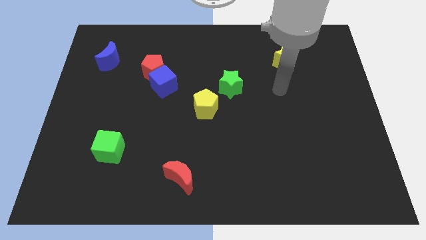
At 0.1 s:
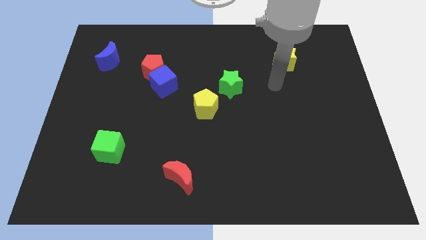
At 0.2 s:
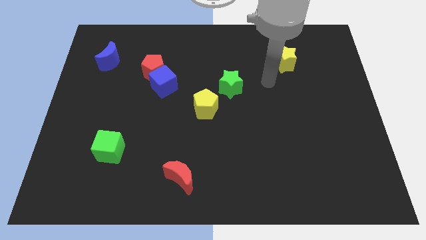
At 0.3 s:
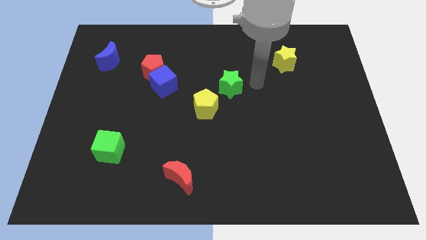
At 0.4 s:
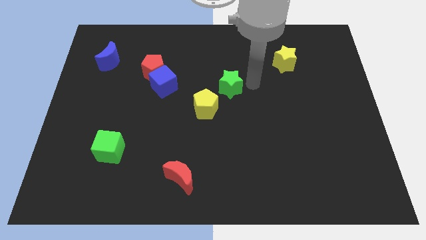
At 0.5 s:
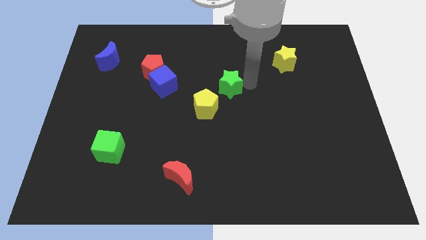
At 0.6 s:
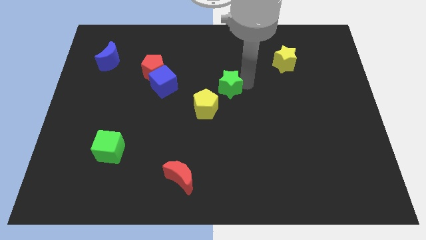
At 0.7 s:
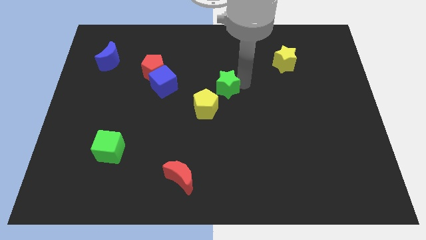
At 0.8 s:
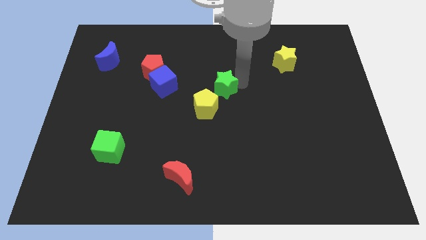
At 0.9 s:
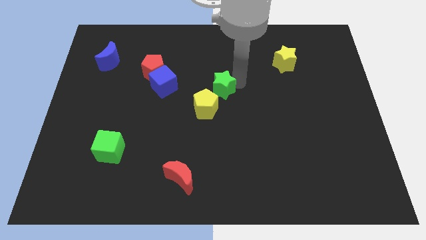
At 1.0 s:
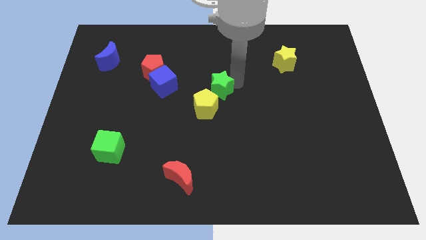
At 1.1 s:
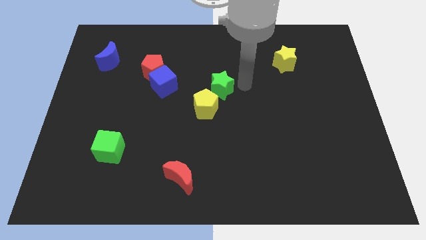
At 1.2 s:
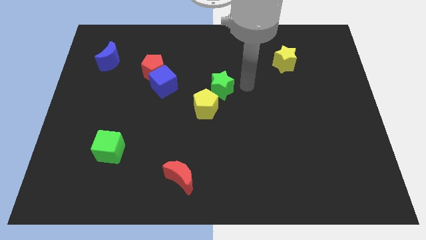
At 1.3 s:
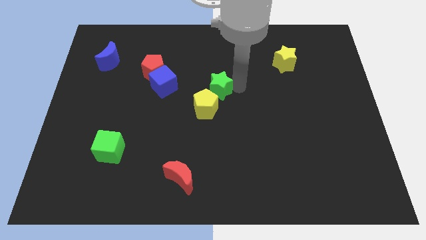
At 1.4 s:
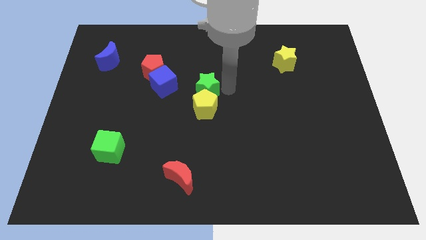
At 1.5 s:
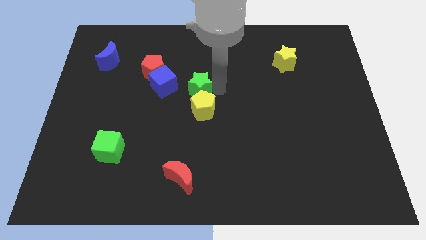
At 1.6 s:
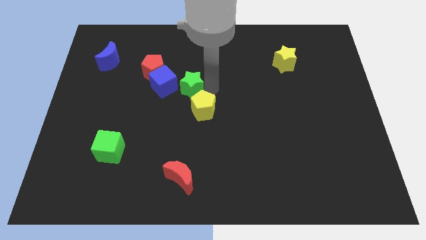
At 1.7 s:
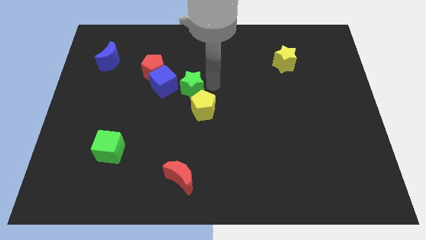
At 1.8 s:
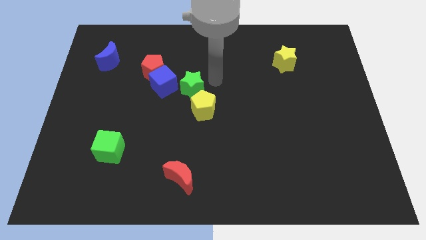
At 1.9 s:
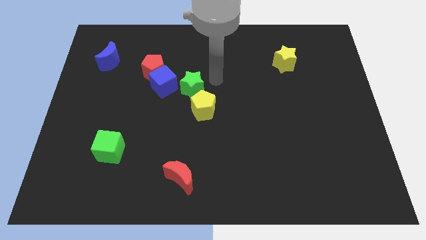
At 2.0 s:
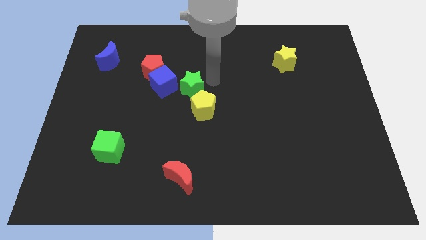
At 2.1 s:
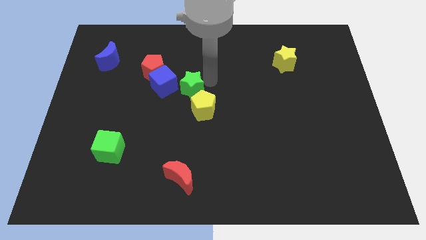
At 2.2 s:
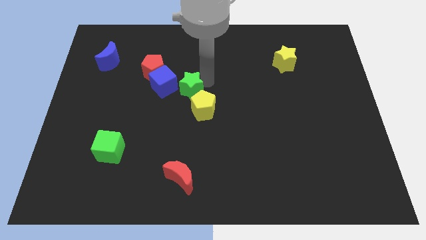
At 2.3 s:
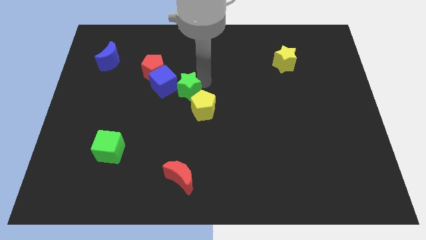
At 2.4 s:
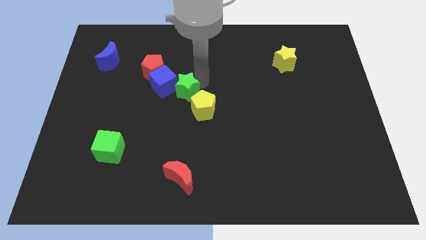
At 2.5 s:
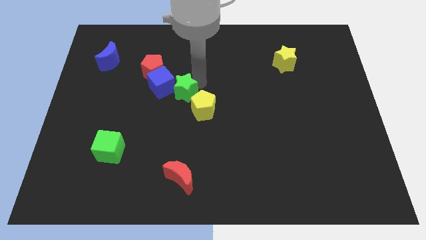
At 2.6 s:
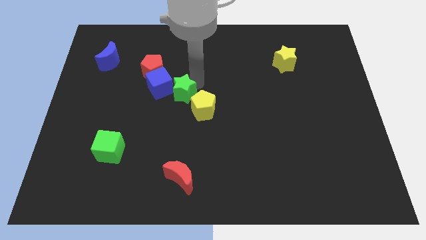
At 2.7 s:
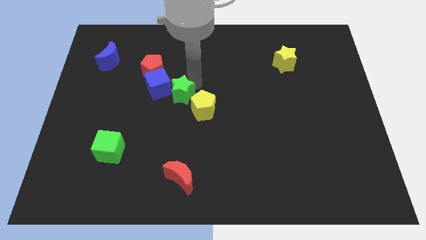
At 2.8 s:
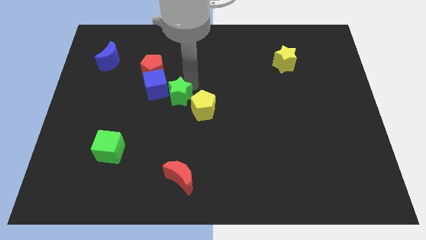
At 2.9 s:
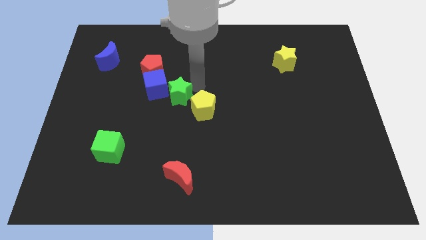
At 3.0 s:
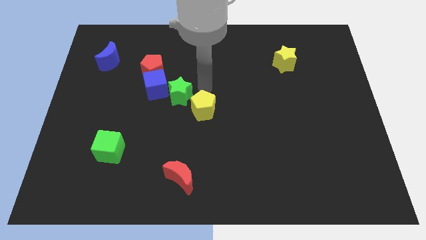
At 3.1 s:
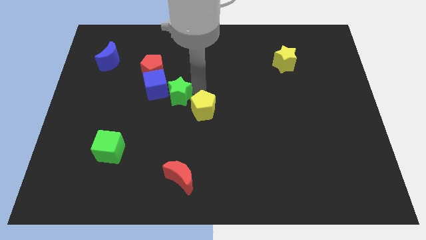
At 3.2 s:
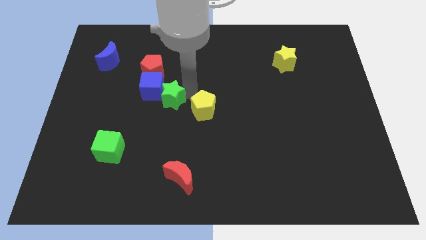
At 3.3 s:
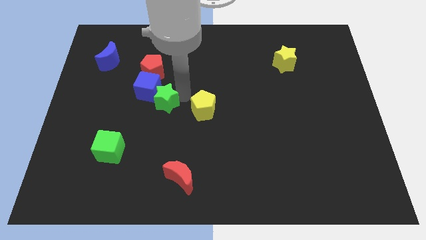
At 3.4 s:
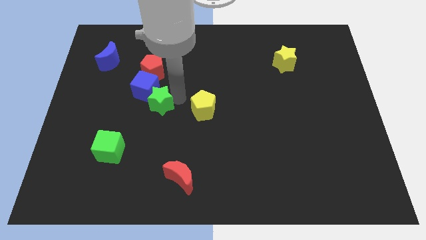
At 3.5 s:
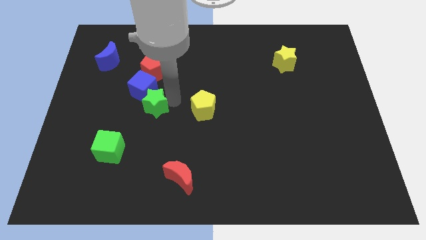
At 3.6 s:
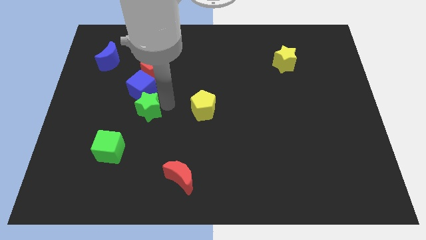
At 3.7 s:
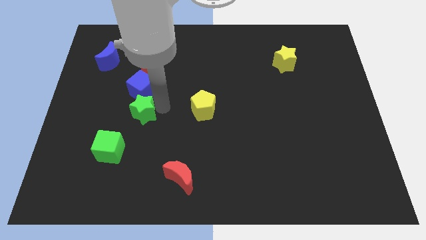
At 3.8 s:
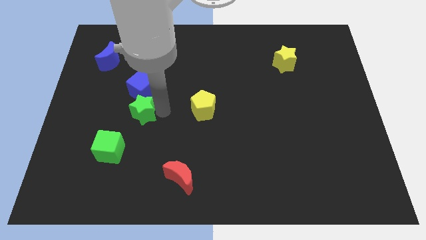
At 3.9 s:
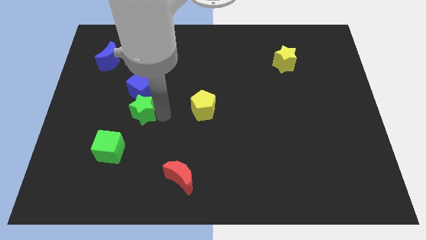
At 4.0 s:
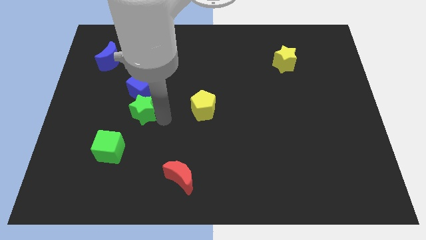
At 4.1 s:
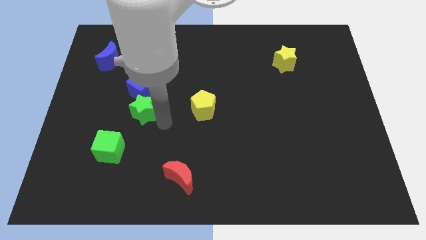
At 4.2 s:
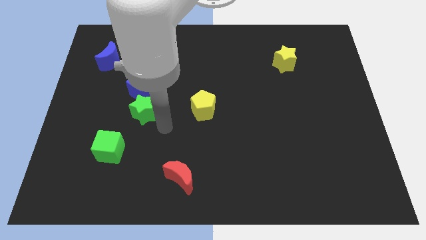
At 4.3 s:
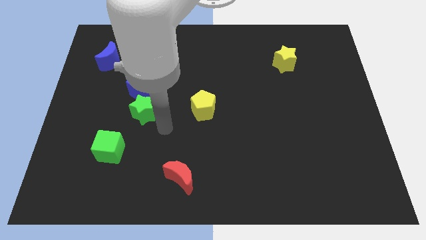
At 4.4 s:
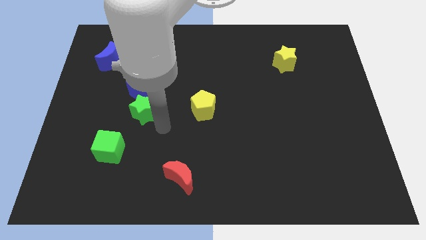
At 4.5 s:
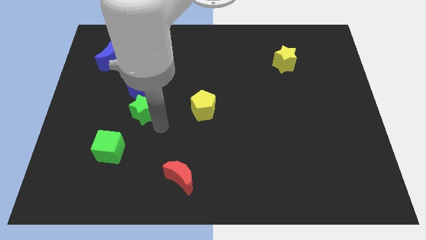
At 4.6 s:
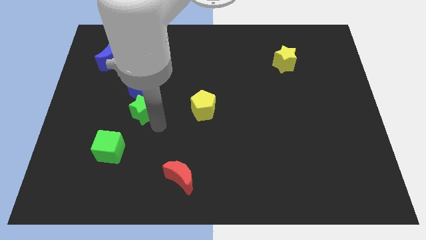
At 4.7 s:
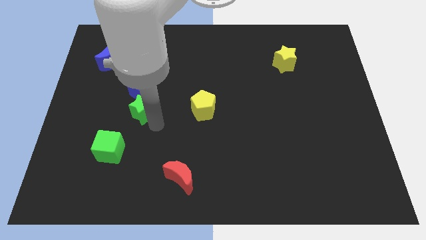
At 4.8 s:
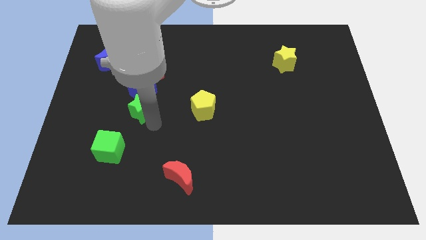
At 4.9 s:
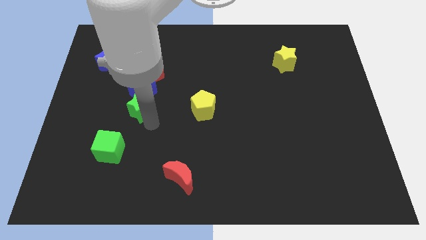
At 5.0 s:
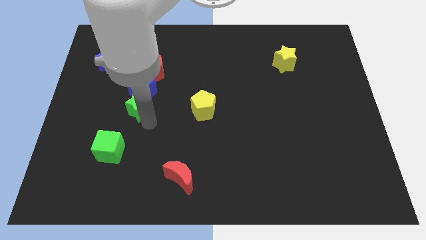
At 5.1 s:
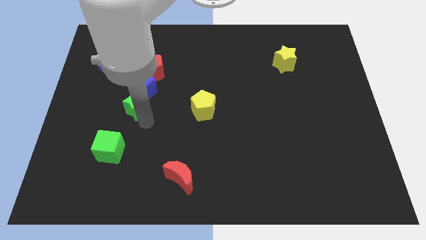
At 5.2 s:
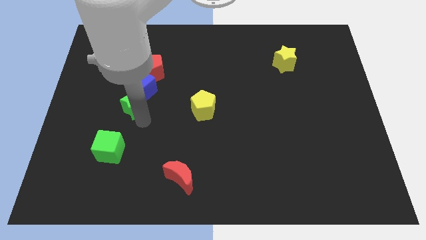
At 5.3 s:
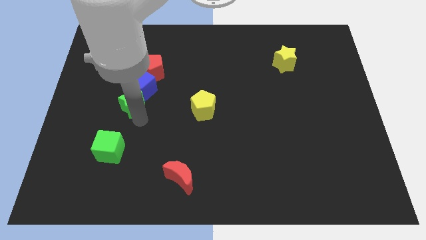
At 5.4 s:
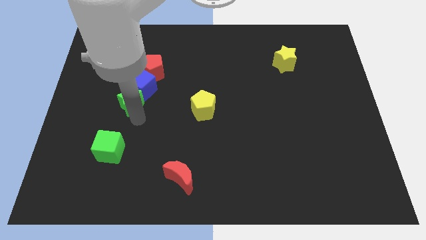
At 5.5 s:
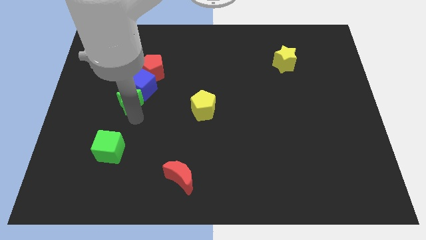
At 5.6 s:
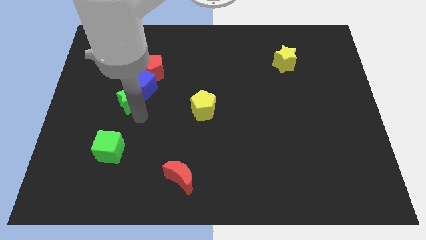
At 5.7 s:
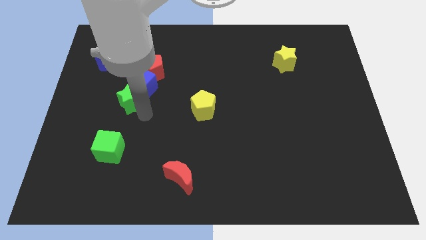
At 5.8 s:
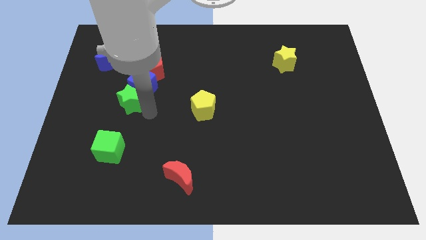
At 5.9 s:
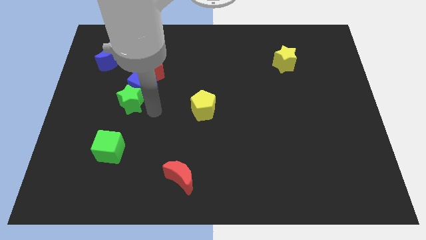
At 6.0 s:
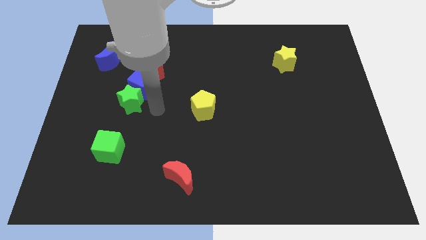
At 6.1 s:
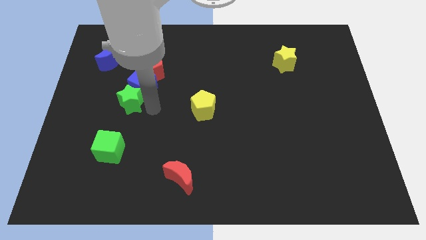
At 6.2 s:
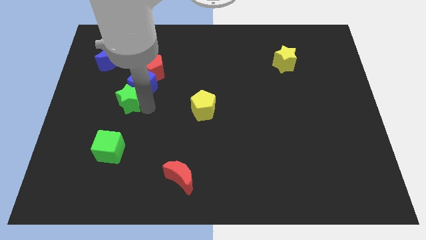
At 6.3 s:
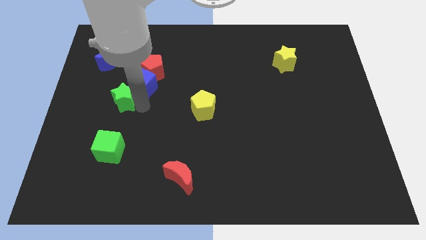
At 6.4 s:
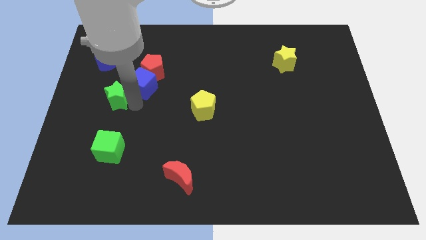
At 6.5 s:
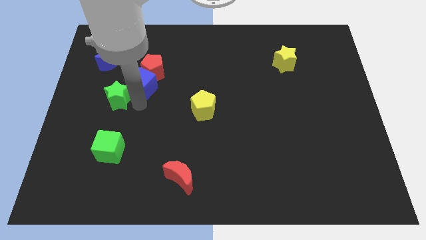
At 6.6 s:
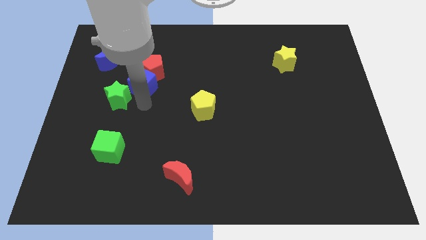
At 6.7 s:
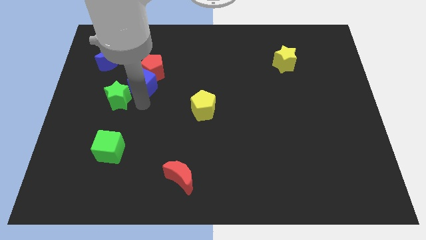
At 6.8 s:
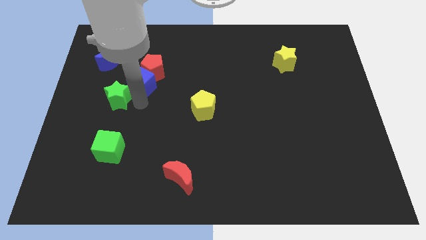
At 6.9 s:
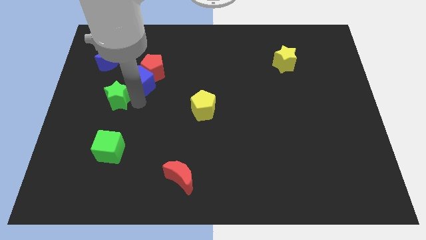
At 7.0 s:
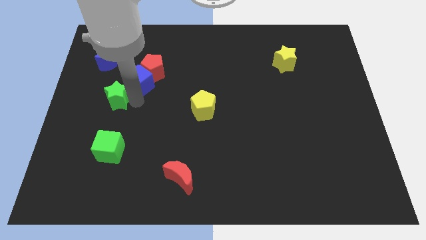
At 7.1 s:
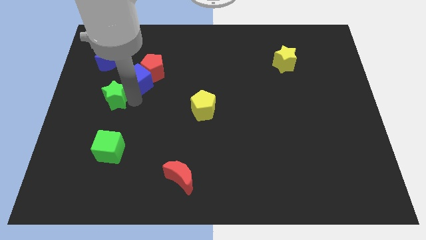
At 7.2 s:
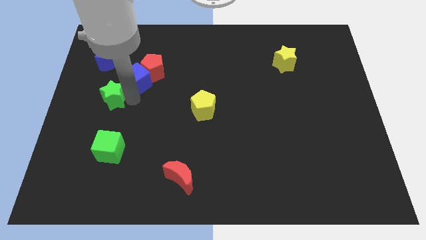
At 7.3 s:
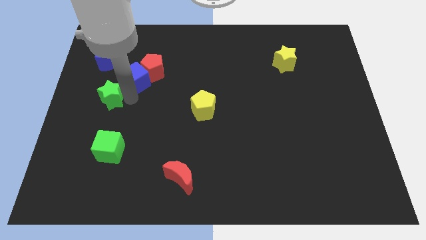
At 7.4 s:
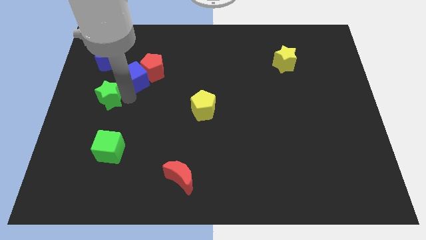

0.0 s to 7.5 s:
put the green star to the center left
